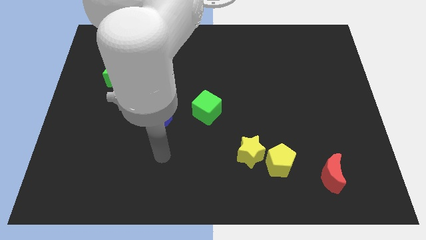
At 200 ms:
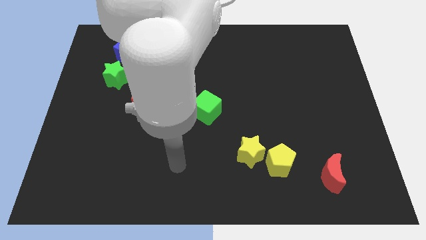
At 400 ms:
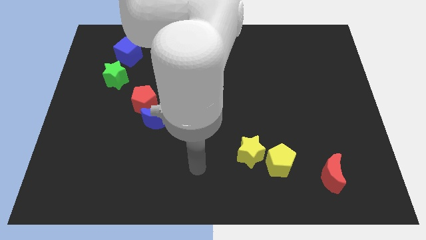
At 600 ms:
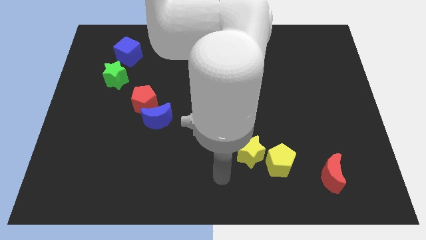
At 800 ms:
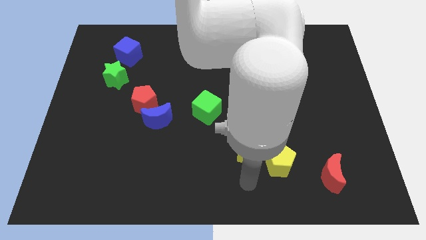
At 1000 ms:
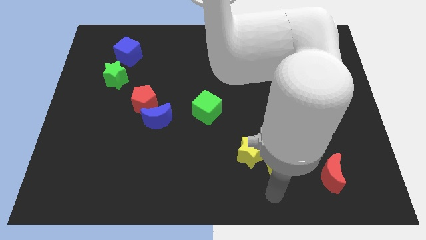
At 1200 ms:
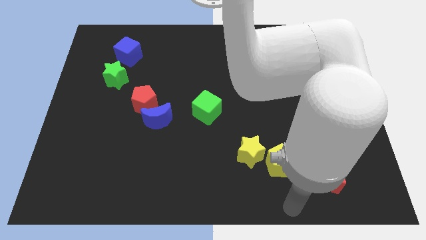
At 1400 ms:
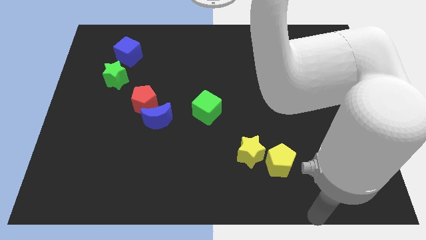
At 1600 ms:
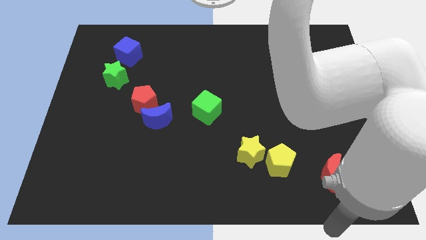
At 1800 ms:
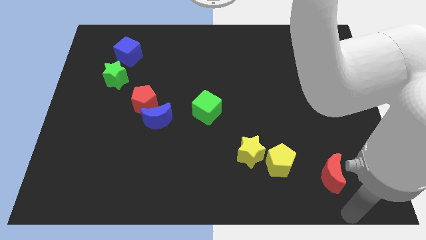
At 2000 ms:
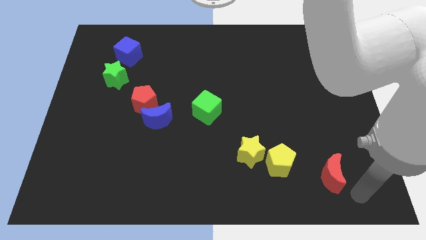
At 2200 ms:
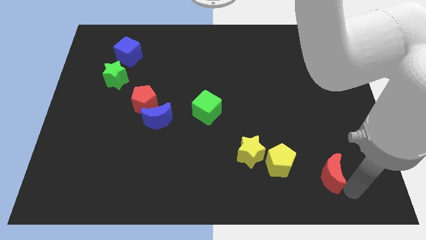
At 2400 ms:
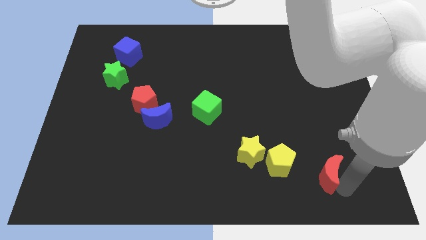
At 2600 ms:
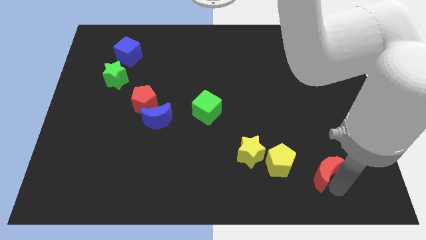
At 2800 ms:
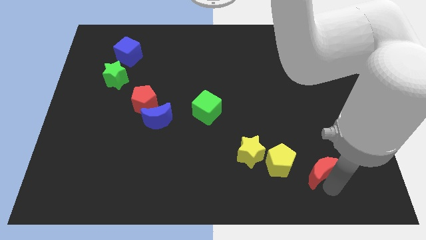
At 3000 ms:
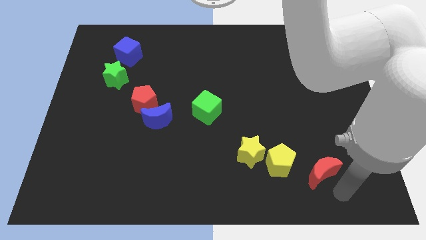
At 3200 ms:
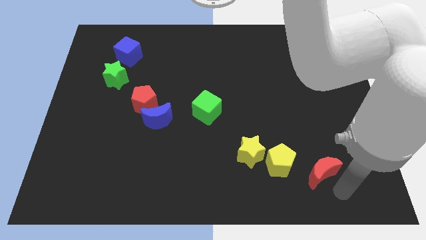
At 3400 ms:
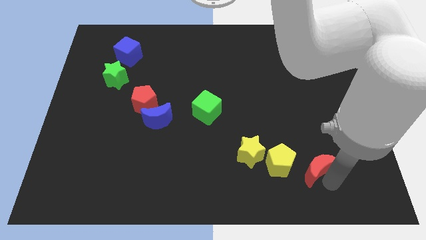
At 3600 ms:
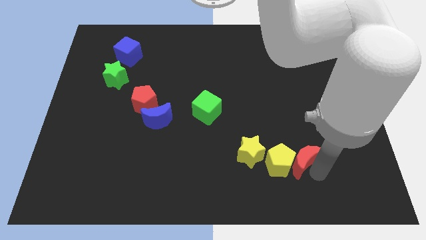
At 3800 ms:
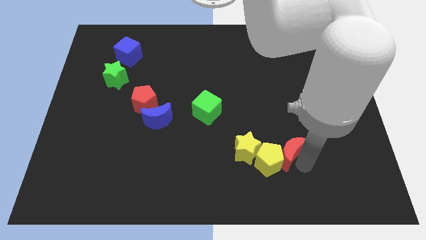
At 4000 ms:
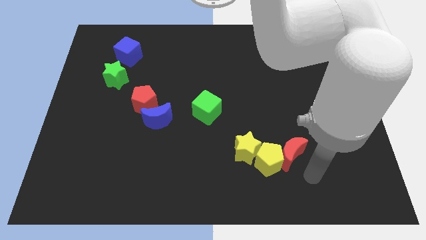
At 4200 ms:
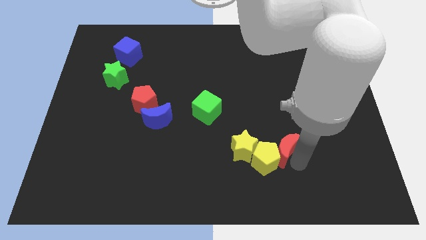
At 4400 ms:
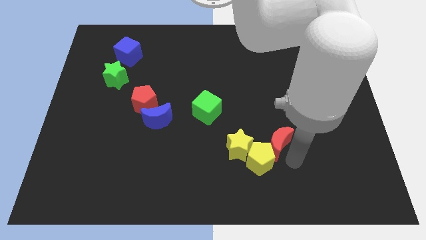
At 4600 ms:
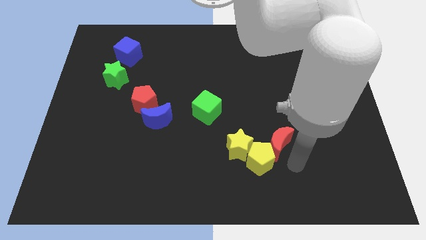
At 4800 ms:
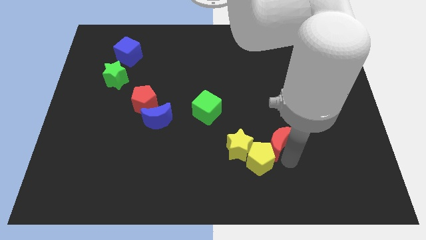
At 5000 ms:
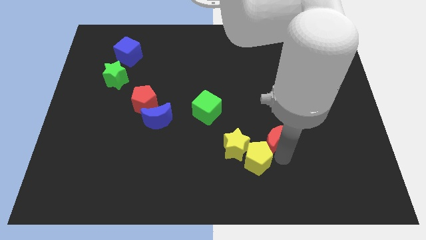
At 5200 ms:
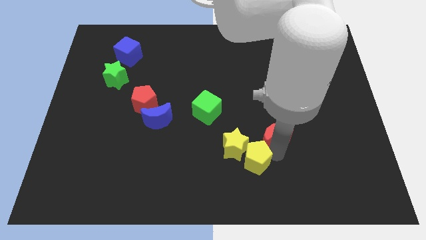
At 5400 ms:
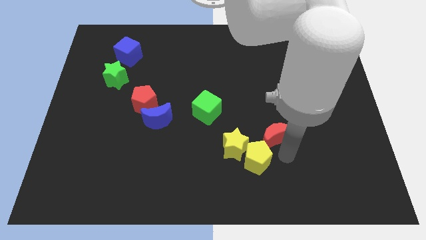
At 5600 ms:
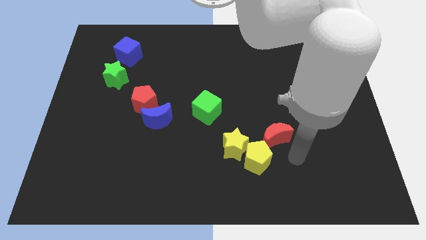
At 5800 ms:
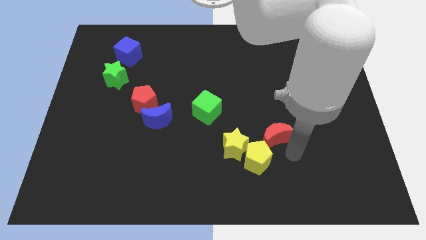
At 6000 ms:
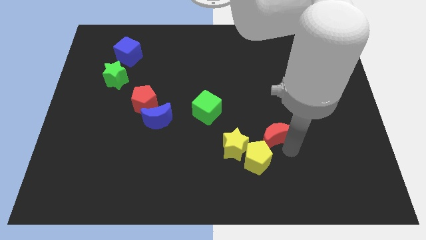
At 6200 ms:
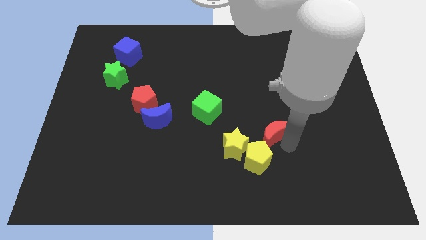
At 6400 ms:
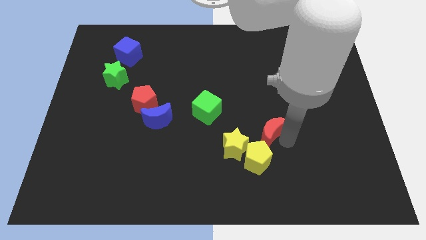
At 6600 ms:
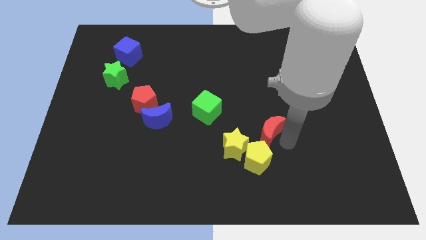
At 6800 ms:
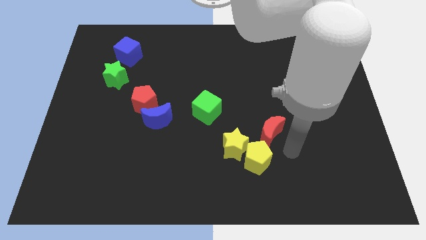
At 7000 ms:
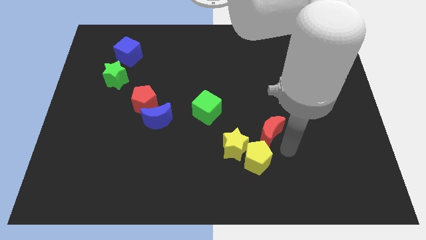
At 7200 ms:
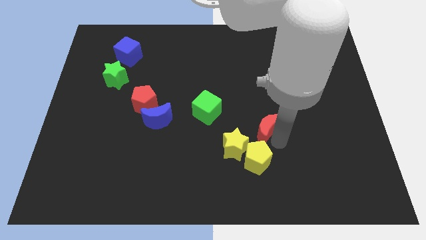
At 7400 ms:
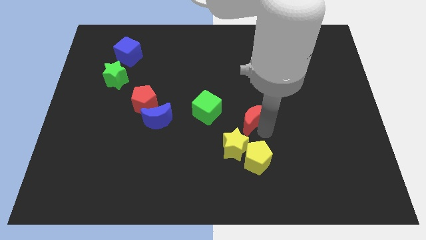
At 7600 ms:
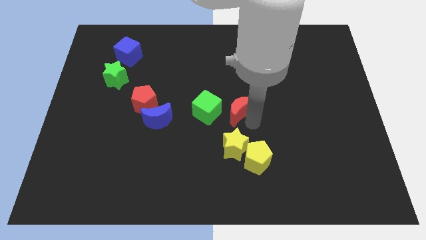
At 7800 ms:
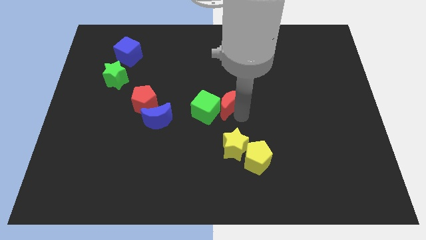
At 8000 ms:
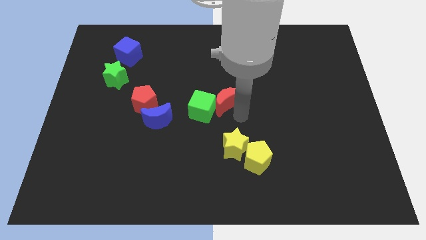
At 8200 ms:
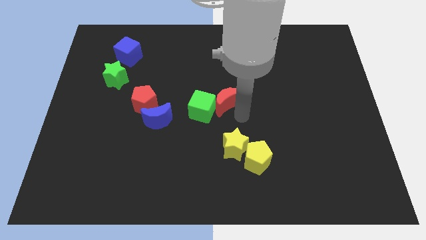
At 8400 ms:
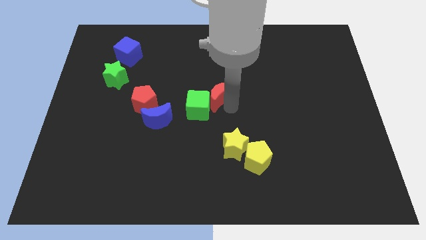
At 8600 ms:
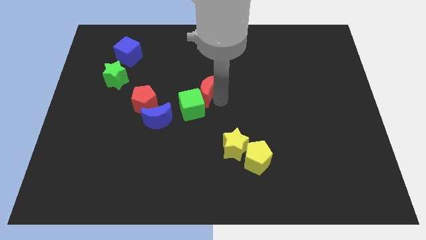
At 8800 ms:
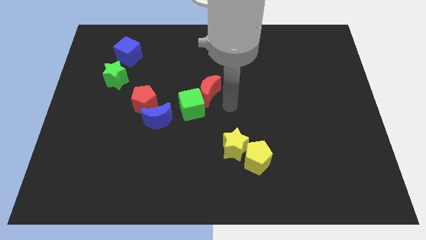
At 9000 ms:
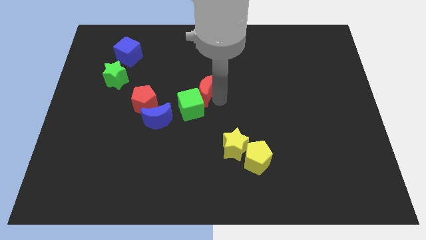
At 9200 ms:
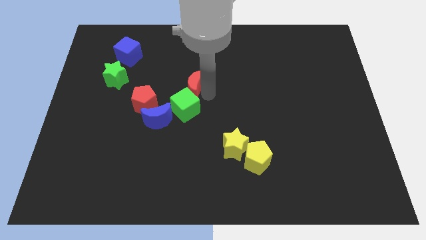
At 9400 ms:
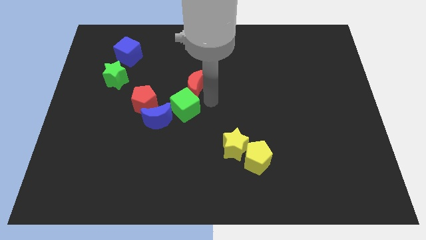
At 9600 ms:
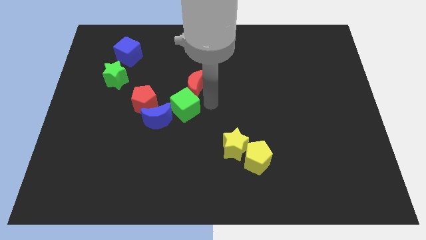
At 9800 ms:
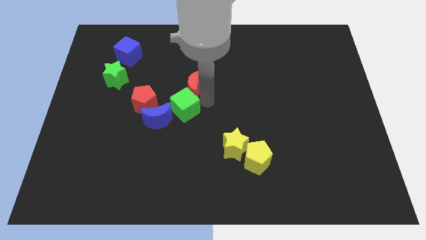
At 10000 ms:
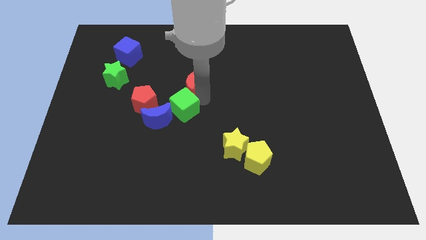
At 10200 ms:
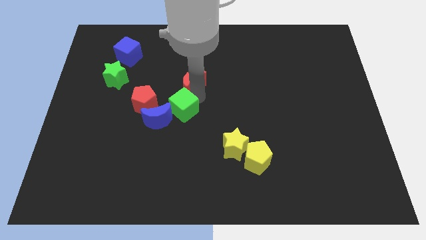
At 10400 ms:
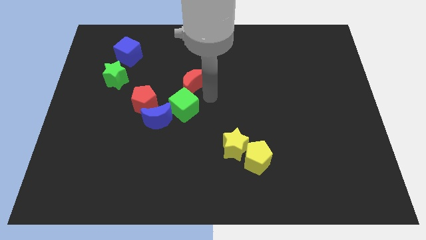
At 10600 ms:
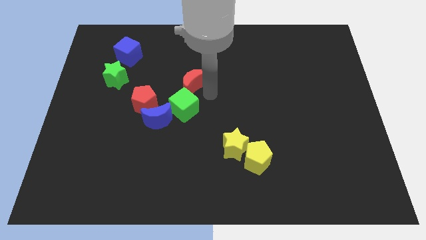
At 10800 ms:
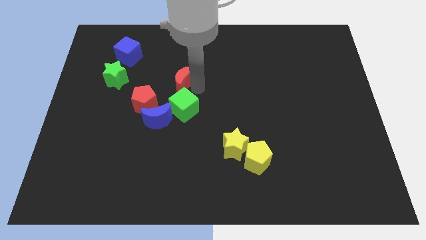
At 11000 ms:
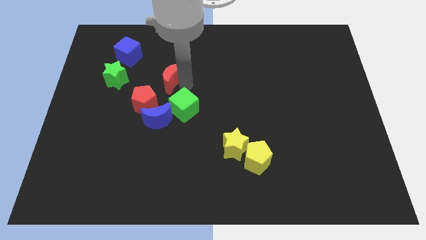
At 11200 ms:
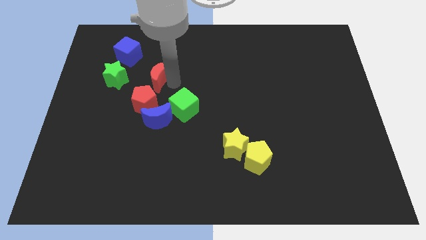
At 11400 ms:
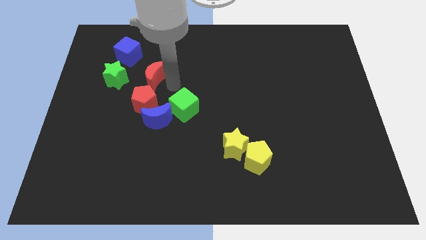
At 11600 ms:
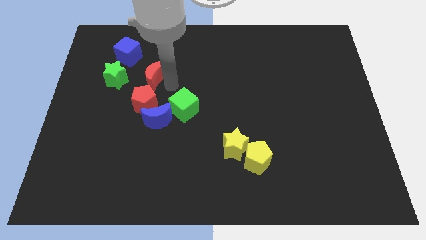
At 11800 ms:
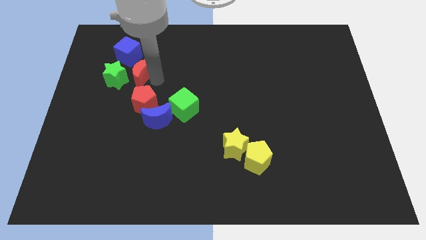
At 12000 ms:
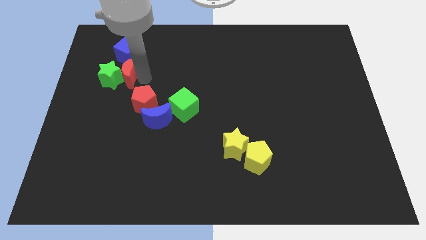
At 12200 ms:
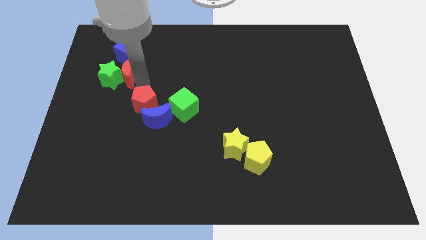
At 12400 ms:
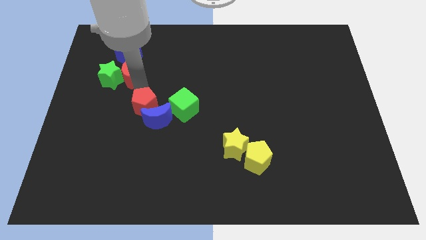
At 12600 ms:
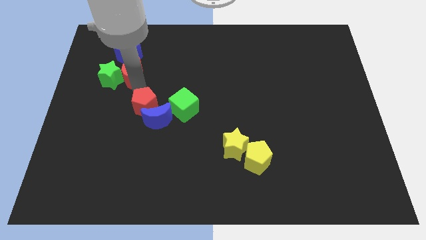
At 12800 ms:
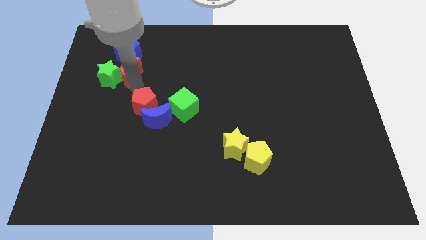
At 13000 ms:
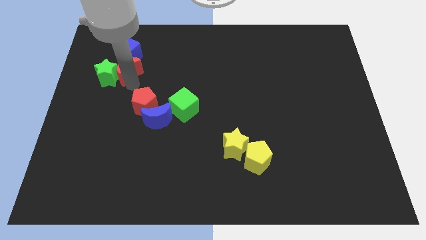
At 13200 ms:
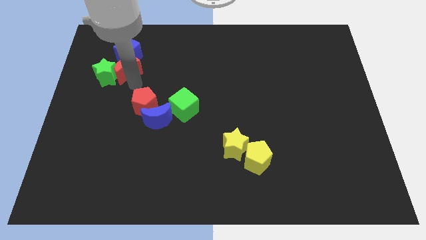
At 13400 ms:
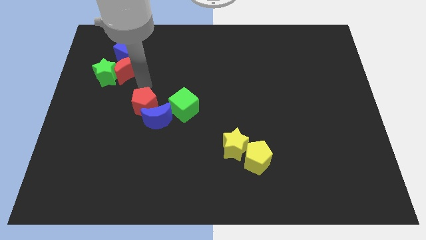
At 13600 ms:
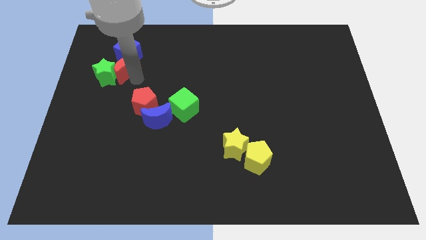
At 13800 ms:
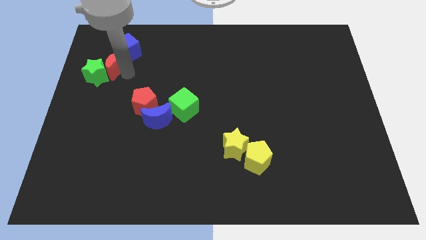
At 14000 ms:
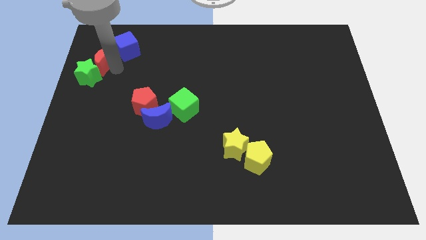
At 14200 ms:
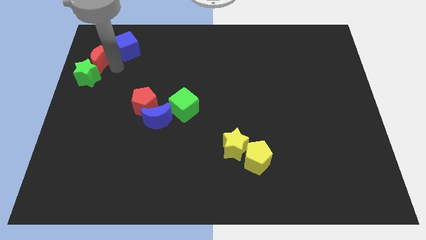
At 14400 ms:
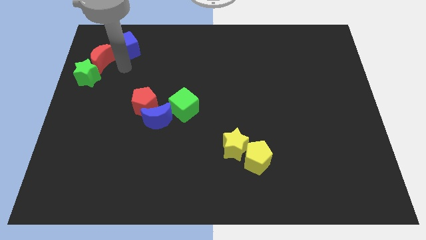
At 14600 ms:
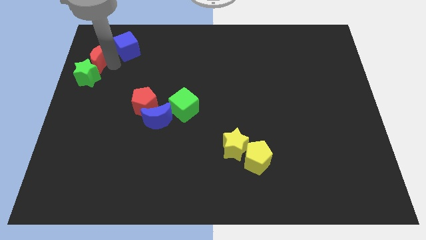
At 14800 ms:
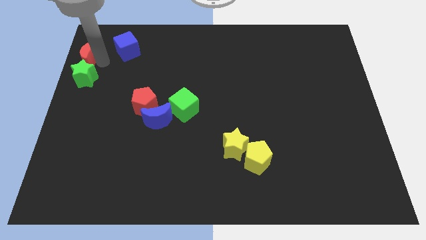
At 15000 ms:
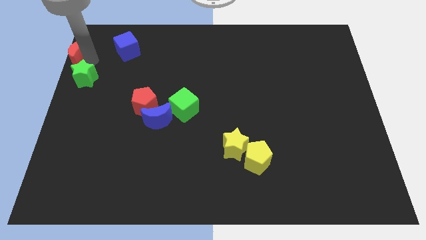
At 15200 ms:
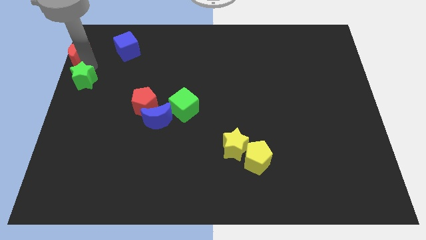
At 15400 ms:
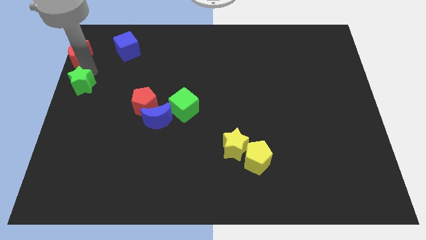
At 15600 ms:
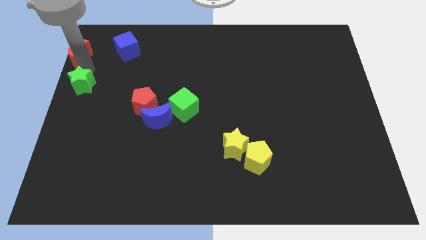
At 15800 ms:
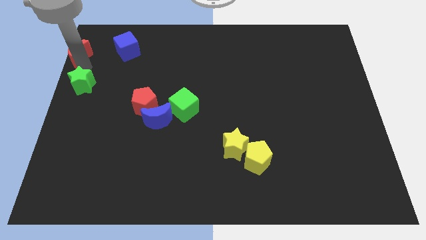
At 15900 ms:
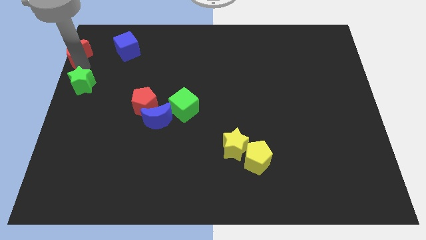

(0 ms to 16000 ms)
put the red moon to the top left corner
